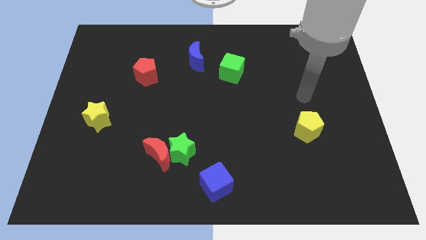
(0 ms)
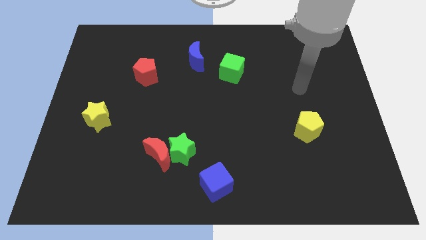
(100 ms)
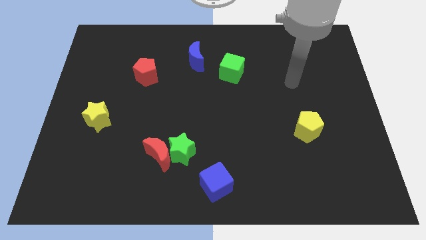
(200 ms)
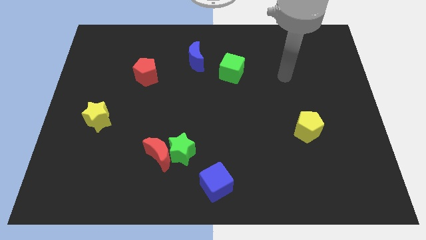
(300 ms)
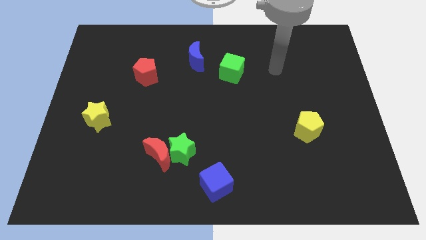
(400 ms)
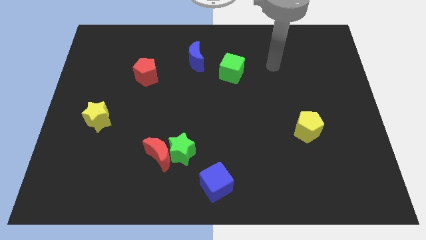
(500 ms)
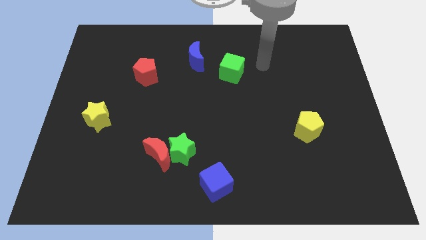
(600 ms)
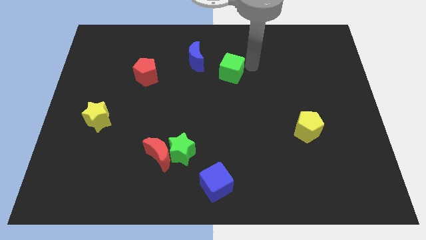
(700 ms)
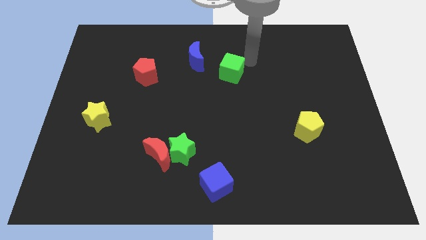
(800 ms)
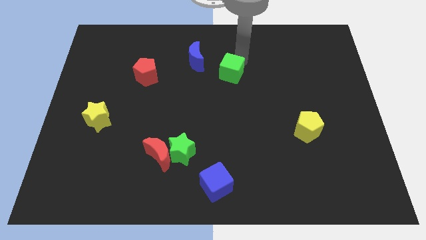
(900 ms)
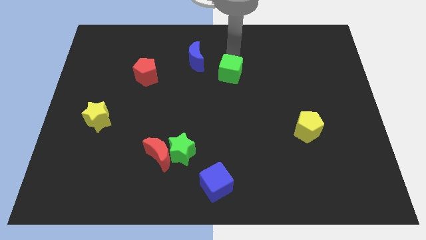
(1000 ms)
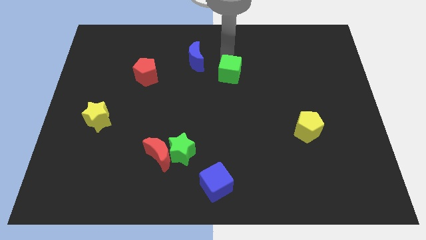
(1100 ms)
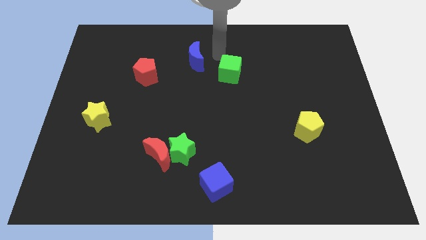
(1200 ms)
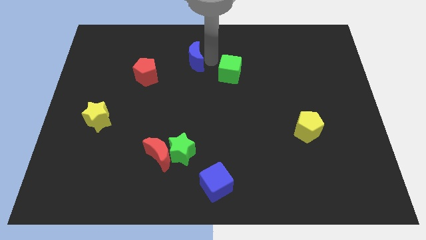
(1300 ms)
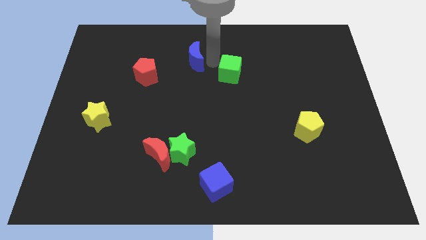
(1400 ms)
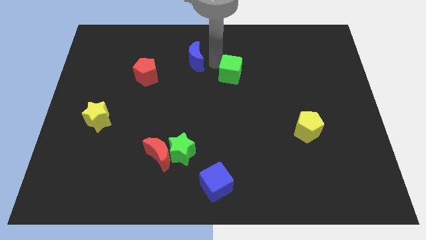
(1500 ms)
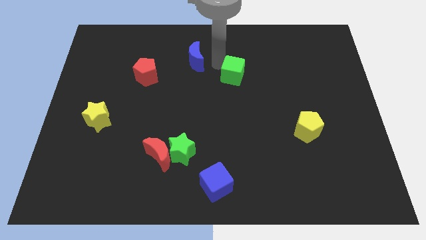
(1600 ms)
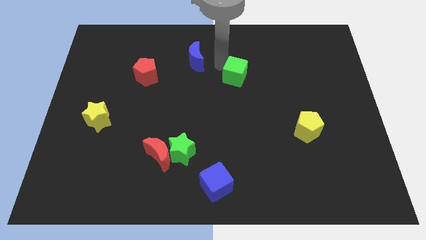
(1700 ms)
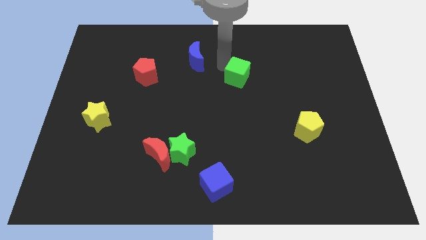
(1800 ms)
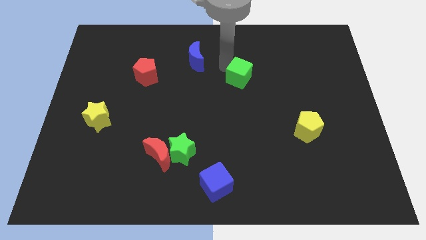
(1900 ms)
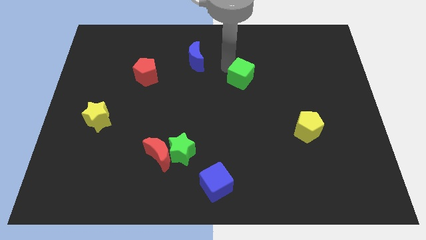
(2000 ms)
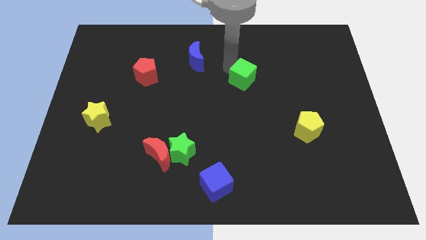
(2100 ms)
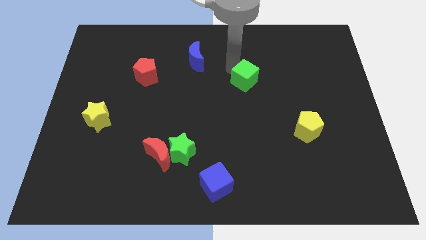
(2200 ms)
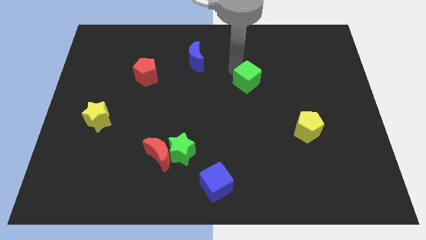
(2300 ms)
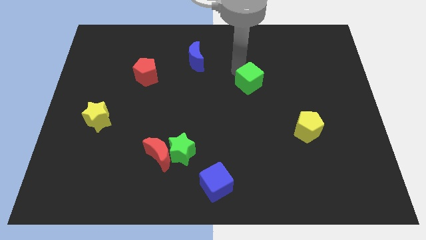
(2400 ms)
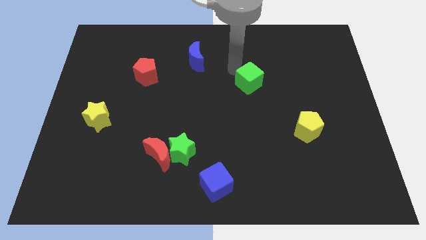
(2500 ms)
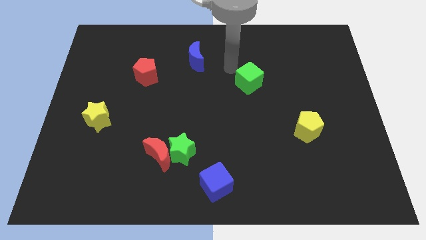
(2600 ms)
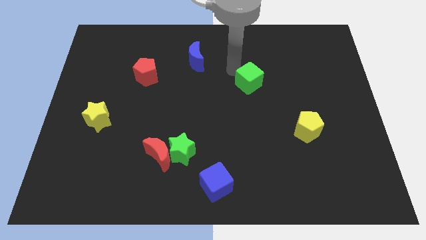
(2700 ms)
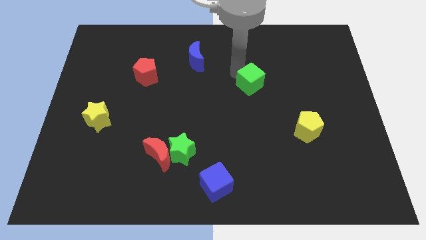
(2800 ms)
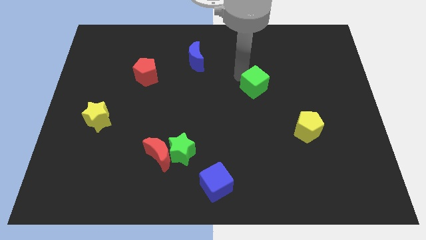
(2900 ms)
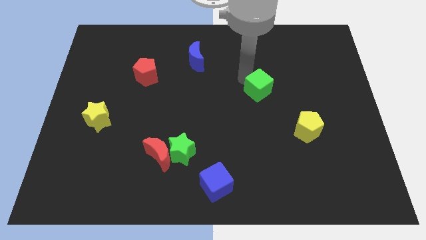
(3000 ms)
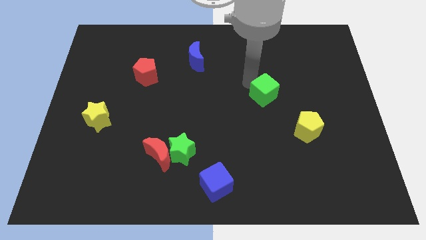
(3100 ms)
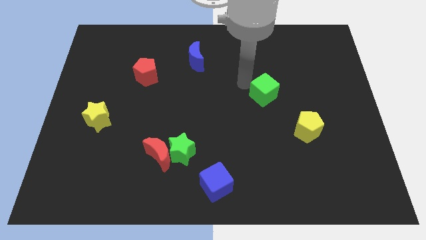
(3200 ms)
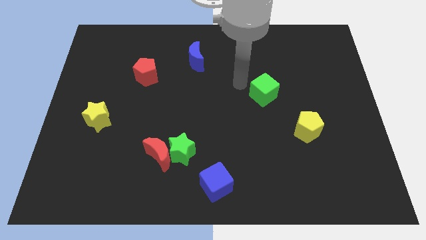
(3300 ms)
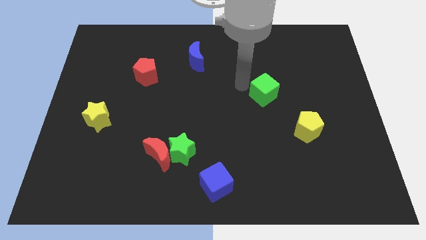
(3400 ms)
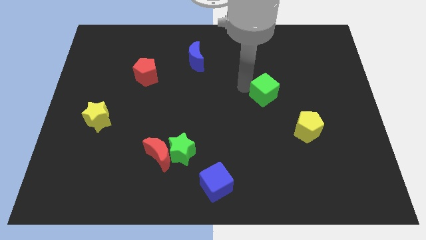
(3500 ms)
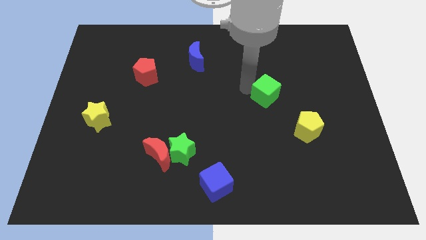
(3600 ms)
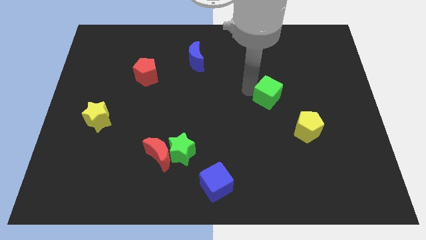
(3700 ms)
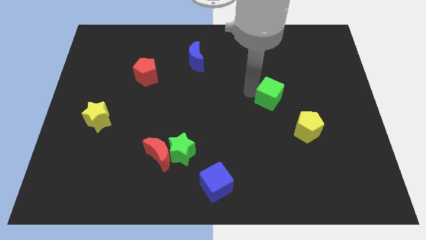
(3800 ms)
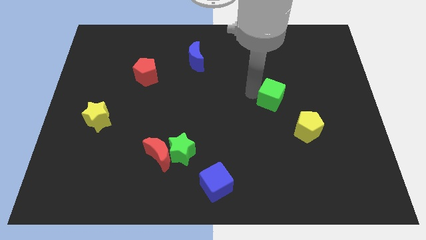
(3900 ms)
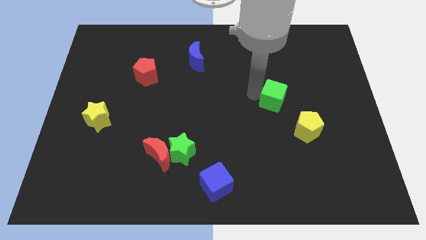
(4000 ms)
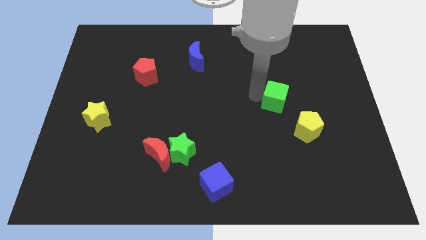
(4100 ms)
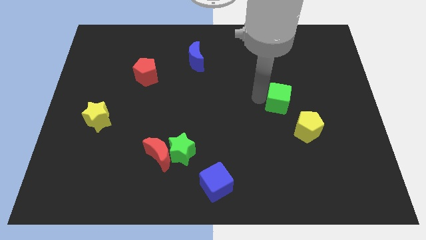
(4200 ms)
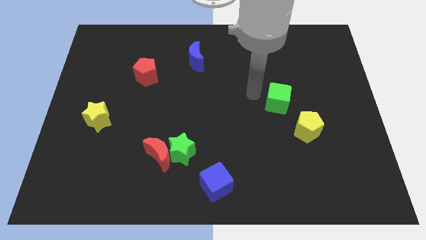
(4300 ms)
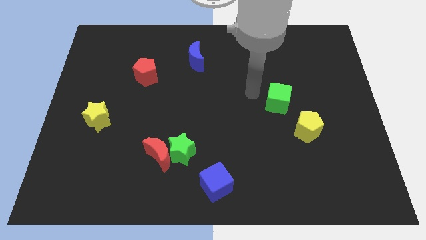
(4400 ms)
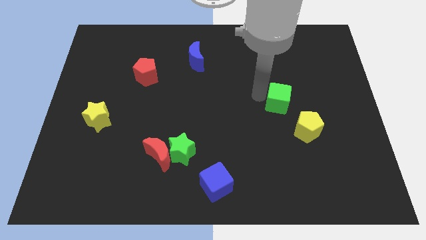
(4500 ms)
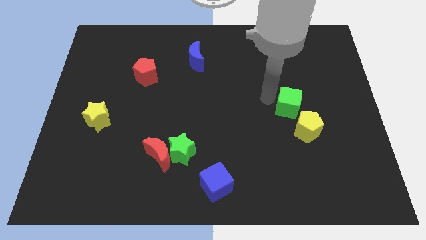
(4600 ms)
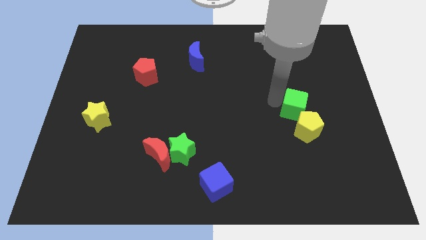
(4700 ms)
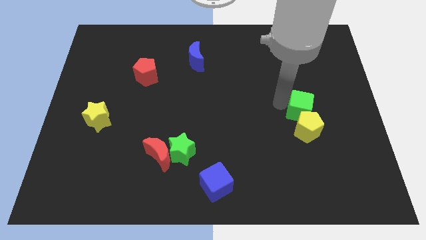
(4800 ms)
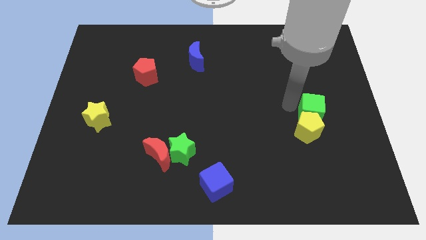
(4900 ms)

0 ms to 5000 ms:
move the green cube down and to the right diagonally

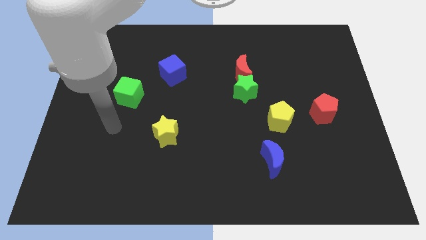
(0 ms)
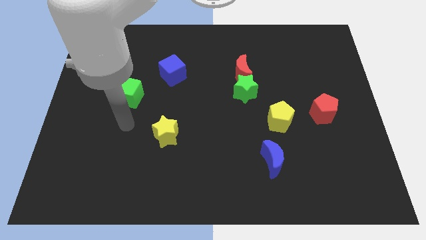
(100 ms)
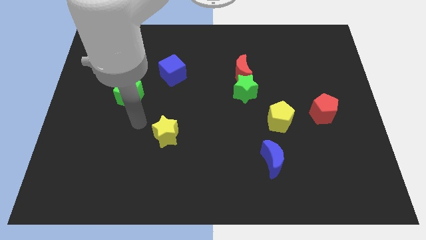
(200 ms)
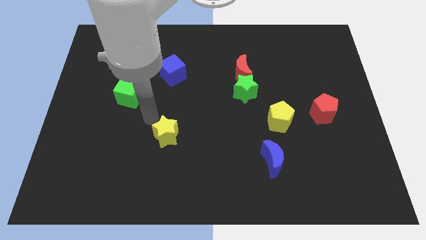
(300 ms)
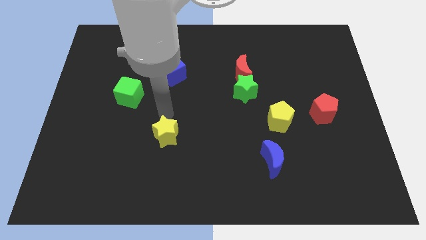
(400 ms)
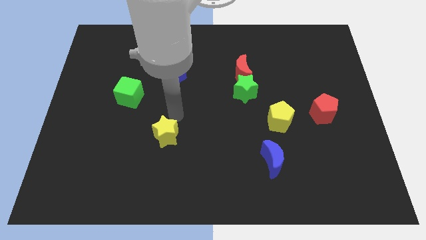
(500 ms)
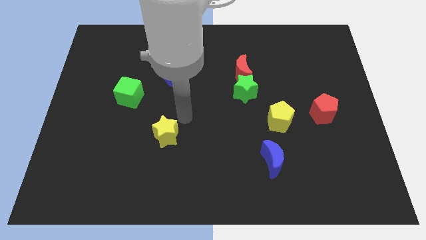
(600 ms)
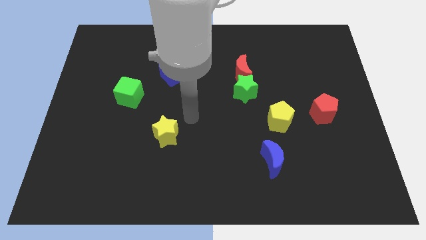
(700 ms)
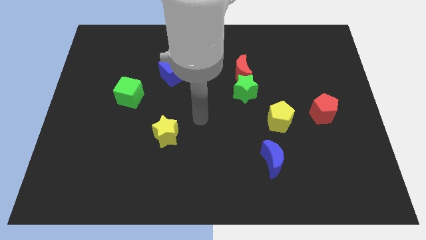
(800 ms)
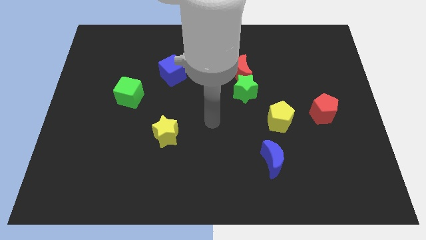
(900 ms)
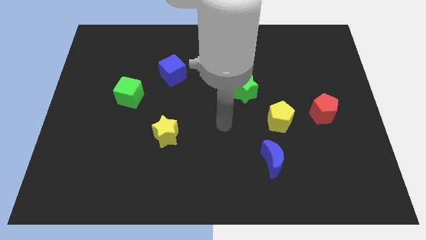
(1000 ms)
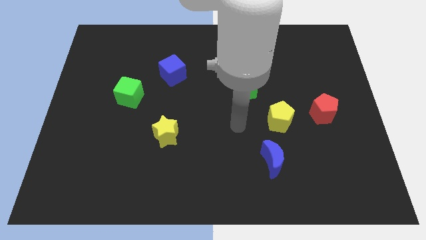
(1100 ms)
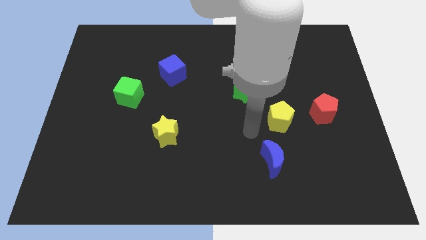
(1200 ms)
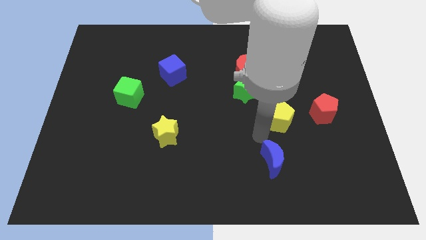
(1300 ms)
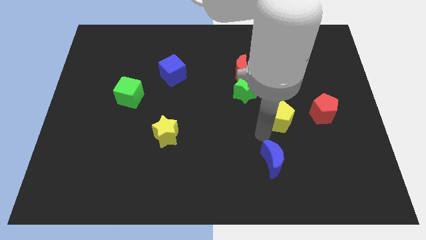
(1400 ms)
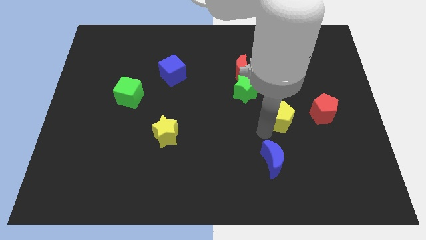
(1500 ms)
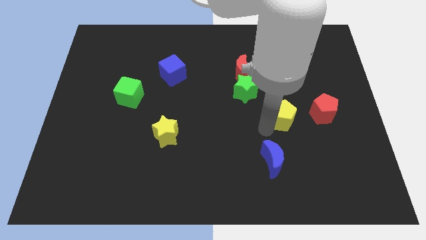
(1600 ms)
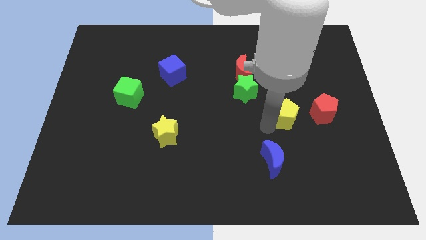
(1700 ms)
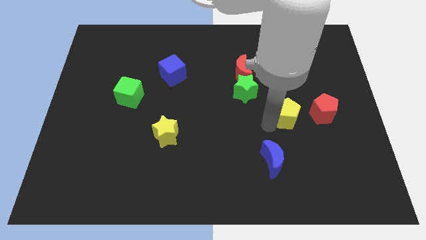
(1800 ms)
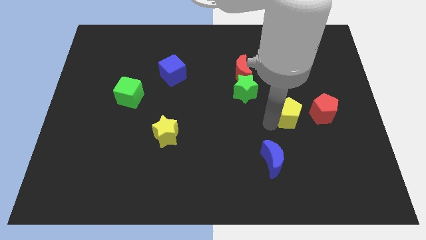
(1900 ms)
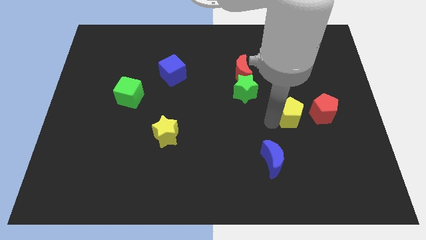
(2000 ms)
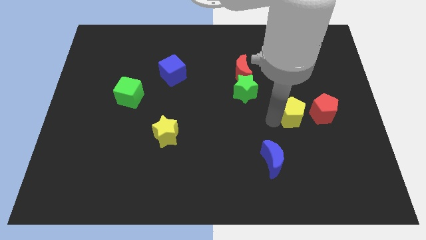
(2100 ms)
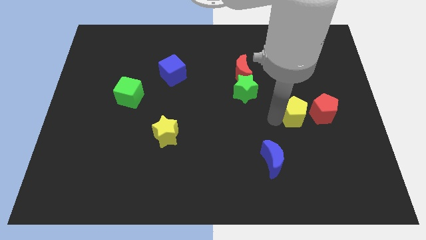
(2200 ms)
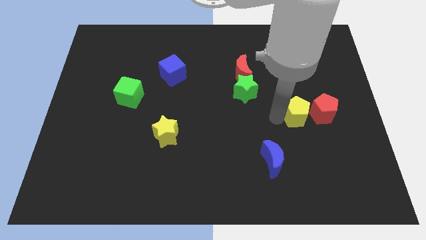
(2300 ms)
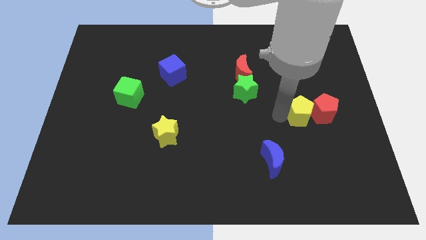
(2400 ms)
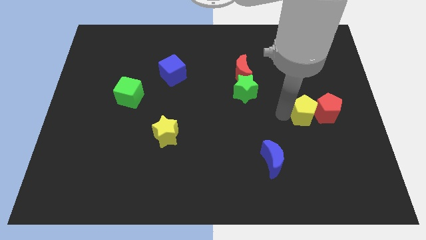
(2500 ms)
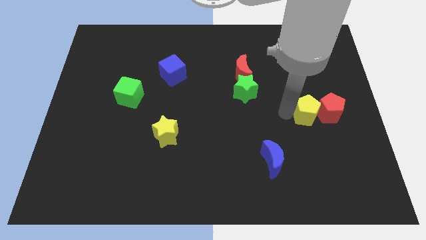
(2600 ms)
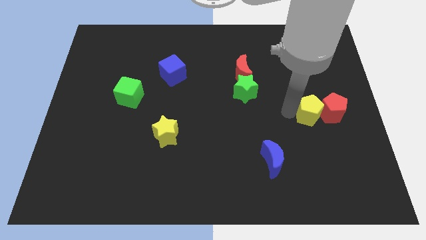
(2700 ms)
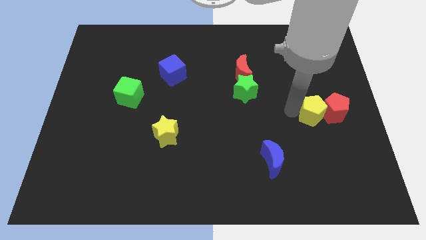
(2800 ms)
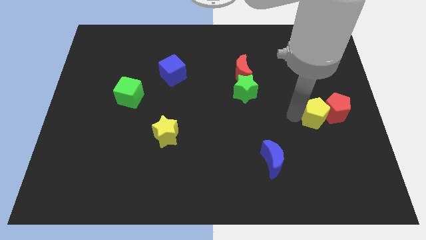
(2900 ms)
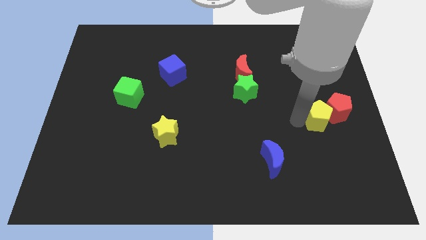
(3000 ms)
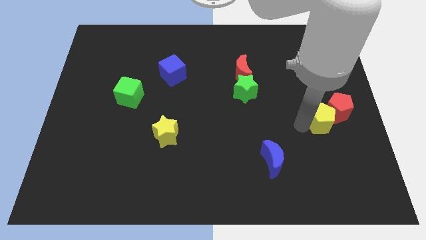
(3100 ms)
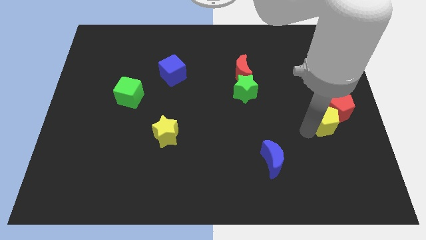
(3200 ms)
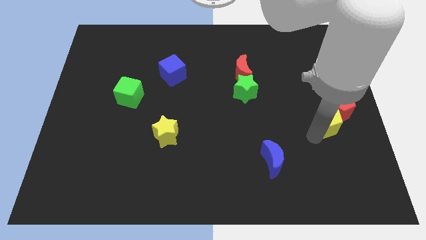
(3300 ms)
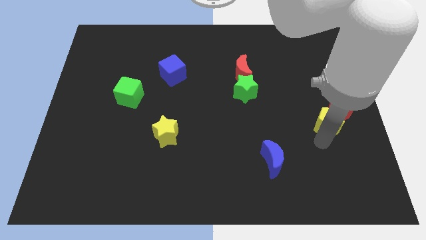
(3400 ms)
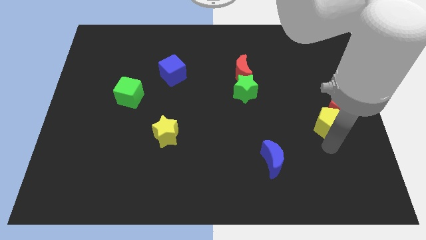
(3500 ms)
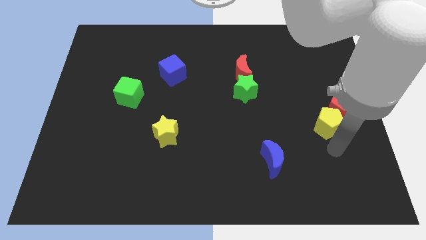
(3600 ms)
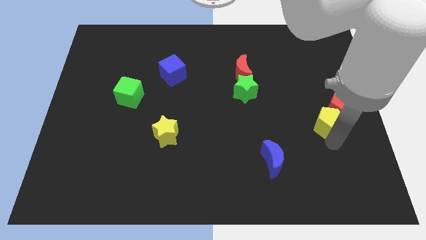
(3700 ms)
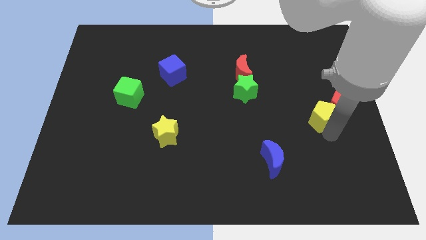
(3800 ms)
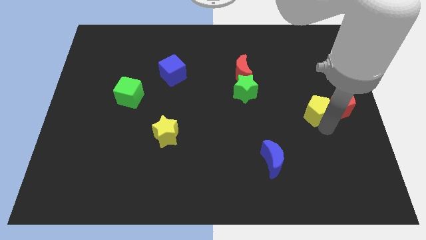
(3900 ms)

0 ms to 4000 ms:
push the yellow pentagon a little bit up and then to the right
